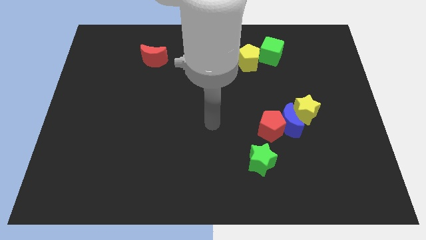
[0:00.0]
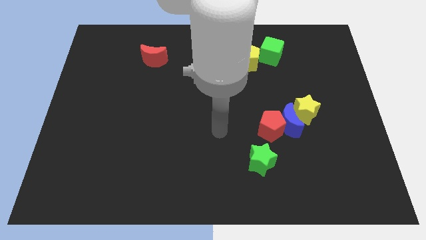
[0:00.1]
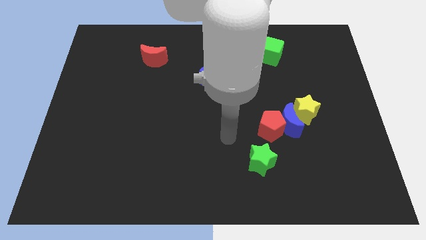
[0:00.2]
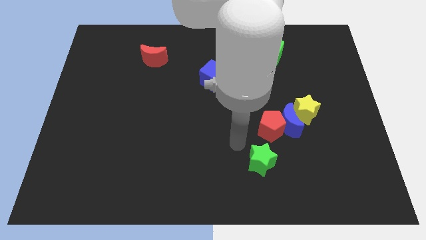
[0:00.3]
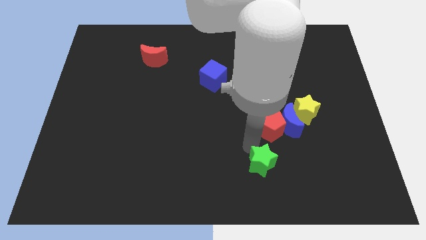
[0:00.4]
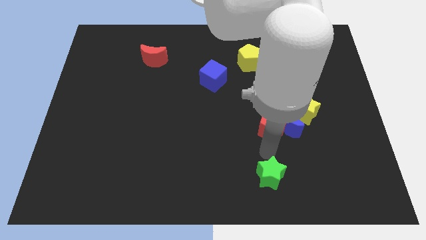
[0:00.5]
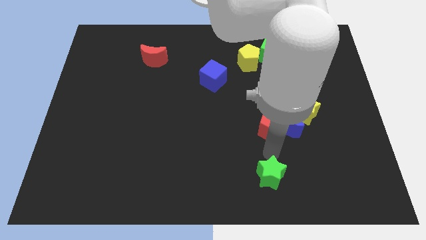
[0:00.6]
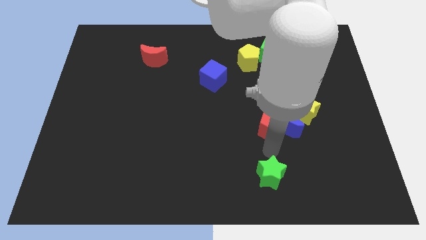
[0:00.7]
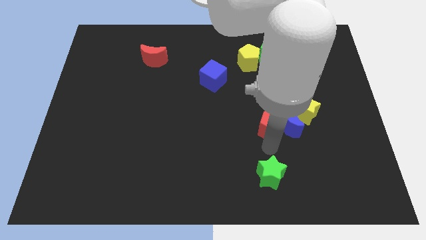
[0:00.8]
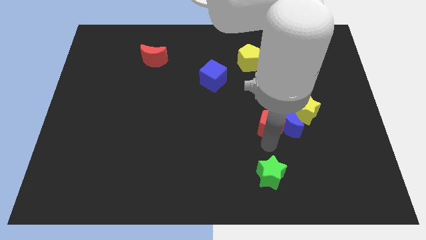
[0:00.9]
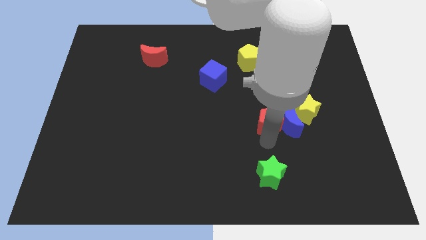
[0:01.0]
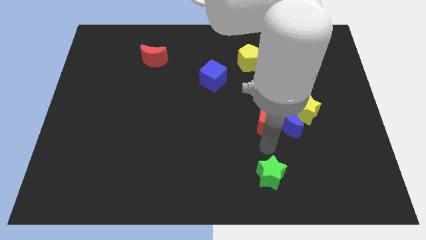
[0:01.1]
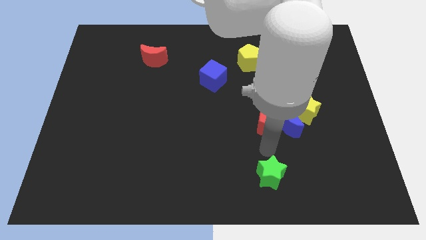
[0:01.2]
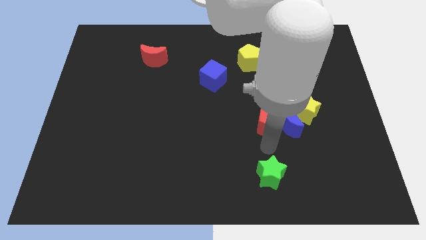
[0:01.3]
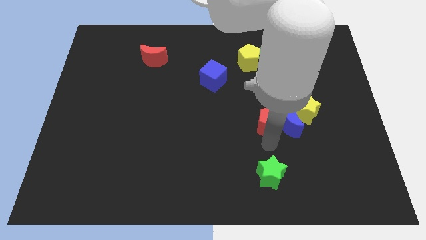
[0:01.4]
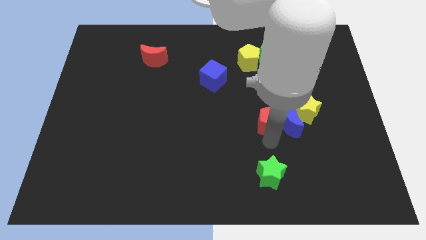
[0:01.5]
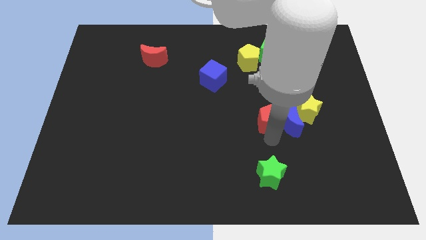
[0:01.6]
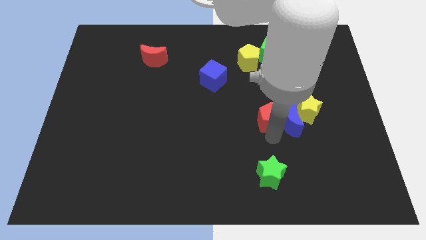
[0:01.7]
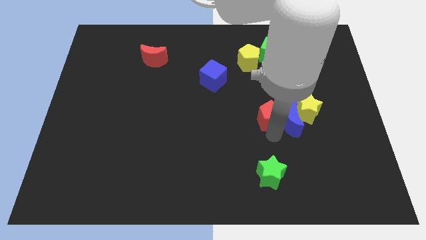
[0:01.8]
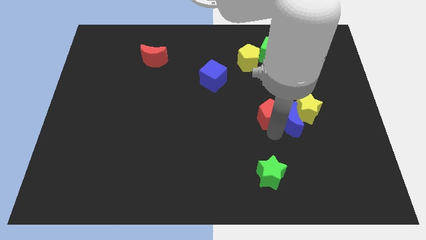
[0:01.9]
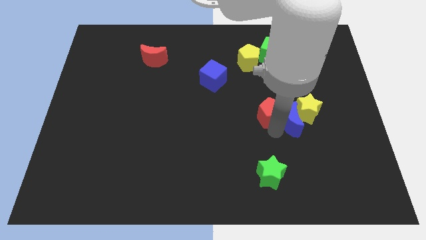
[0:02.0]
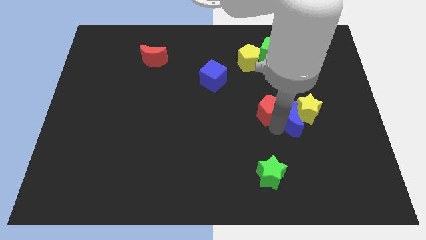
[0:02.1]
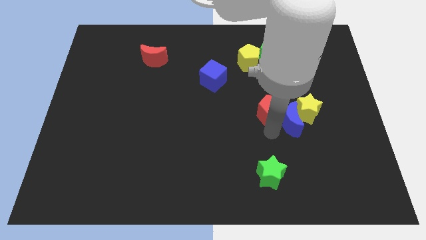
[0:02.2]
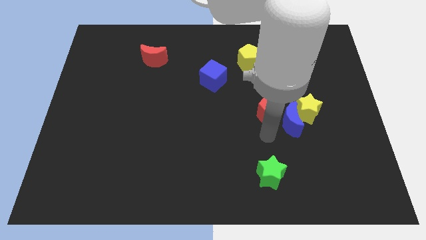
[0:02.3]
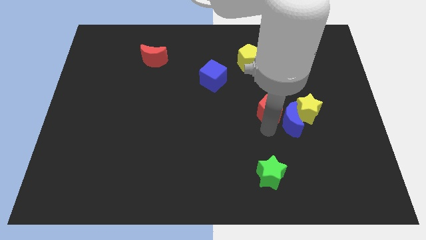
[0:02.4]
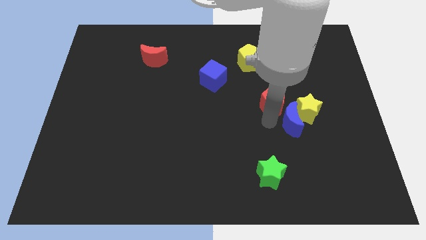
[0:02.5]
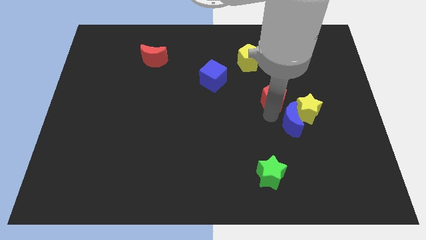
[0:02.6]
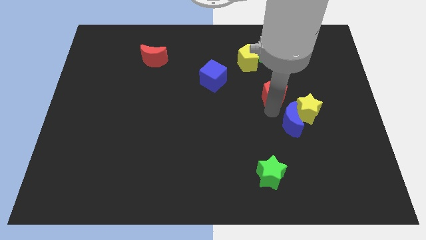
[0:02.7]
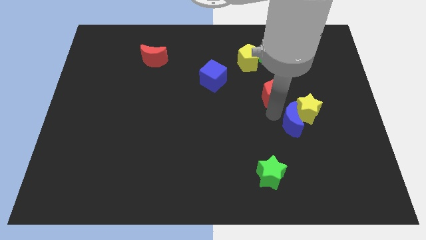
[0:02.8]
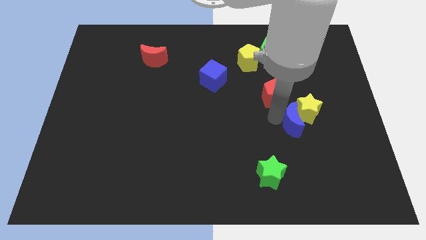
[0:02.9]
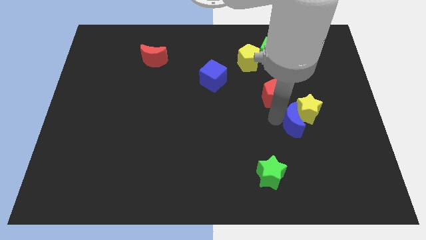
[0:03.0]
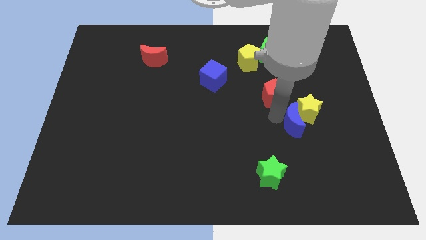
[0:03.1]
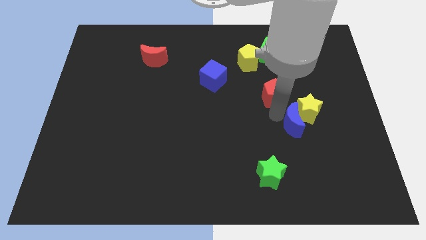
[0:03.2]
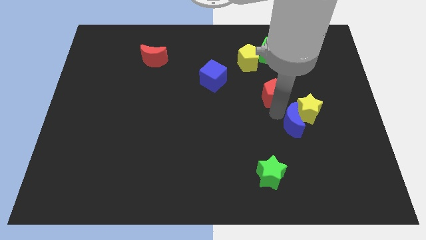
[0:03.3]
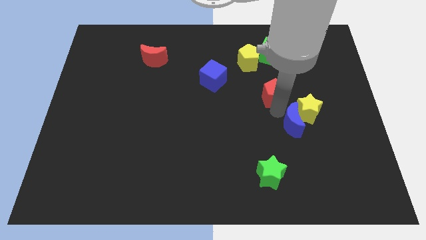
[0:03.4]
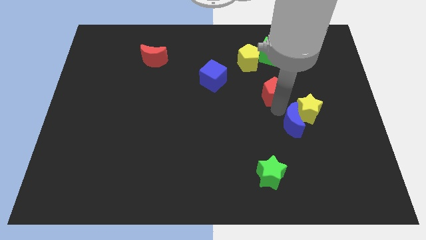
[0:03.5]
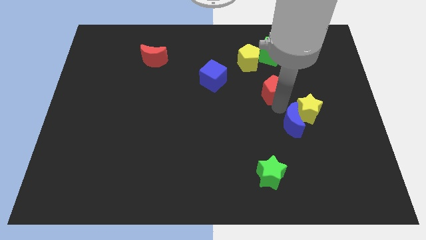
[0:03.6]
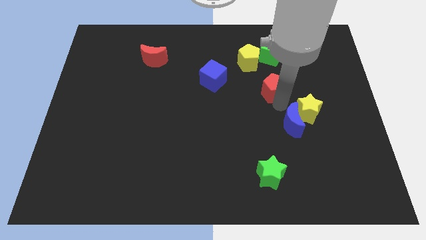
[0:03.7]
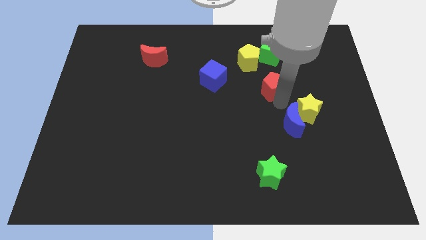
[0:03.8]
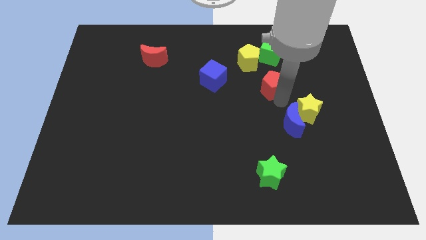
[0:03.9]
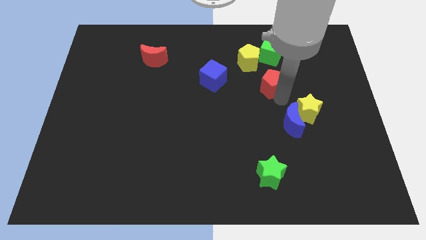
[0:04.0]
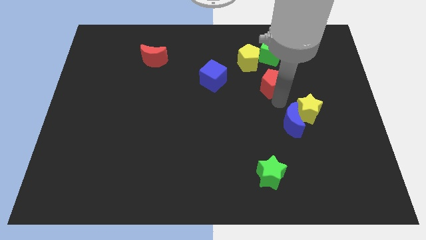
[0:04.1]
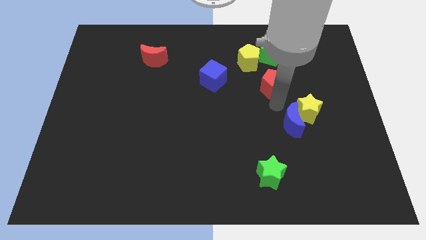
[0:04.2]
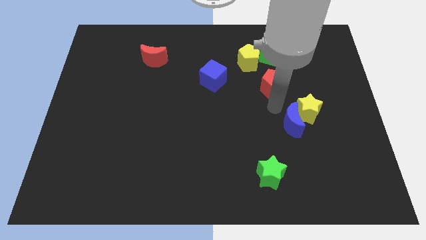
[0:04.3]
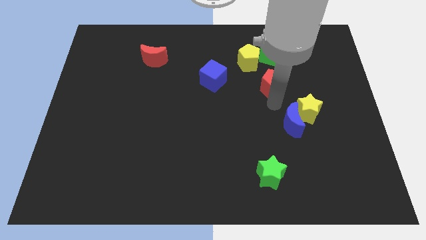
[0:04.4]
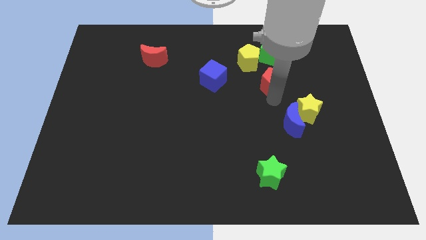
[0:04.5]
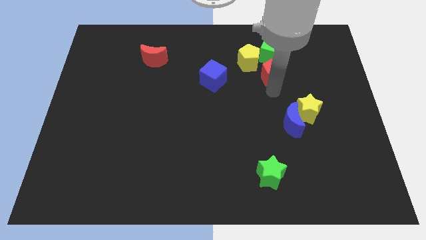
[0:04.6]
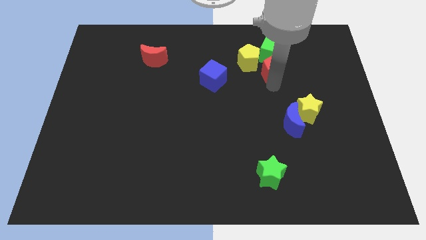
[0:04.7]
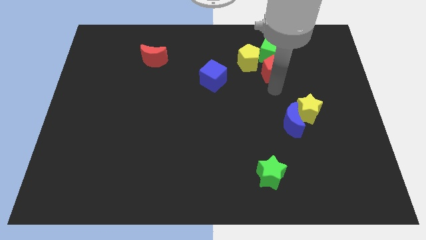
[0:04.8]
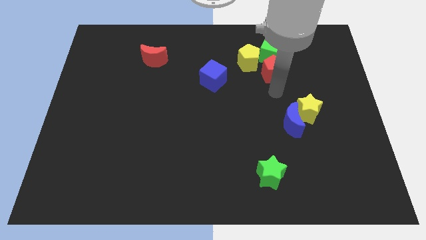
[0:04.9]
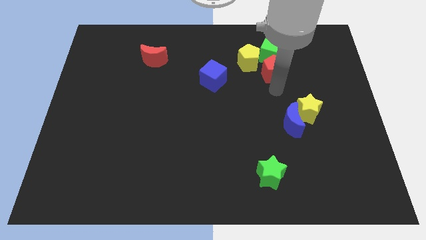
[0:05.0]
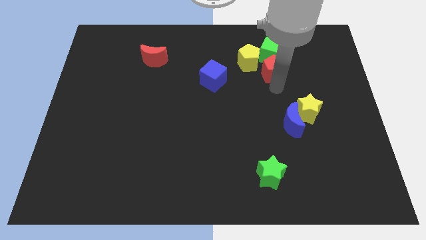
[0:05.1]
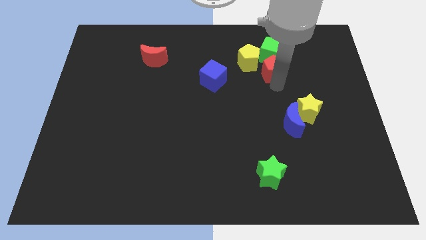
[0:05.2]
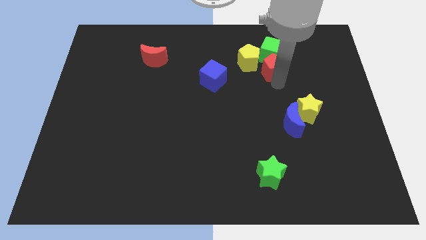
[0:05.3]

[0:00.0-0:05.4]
put the red pentagon towards the green cube

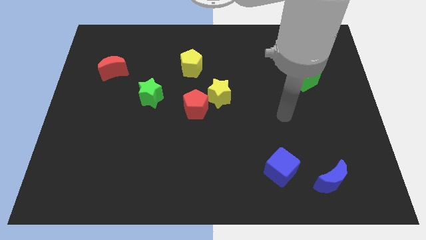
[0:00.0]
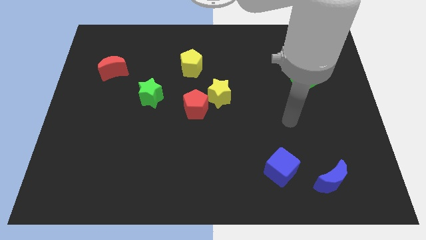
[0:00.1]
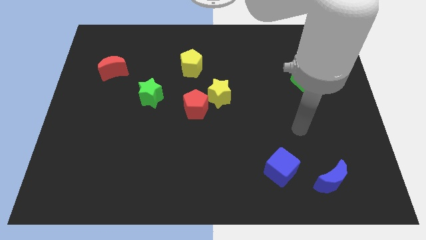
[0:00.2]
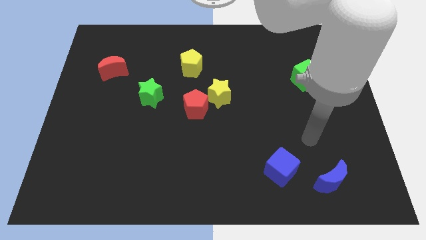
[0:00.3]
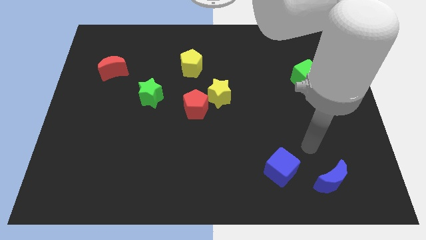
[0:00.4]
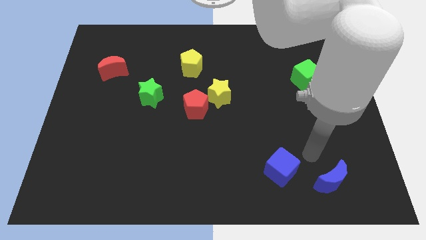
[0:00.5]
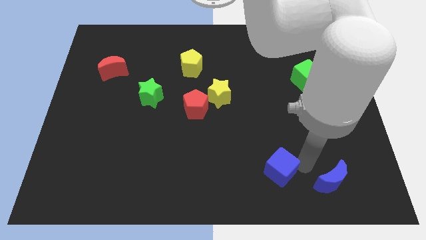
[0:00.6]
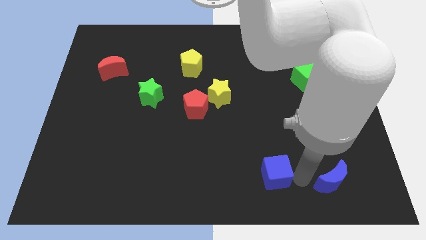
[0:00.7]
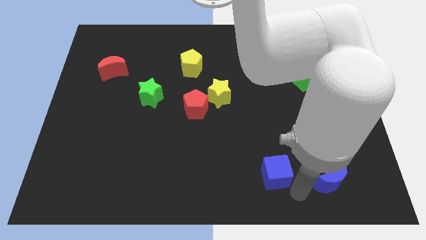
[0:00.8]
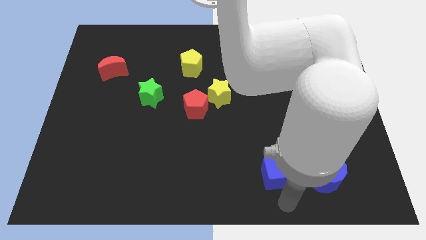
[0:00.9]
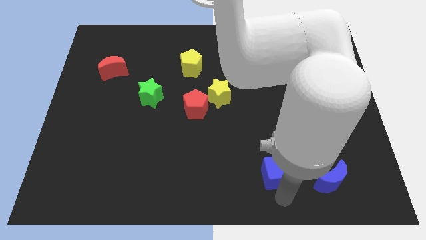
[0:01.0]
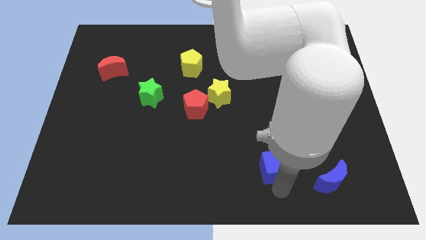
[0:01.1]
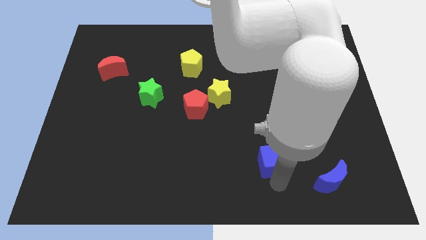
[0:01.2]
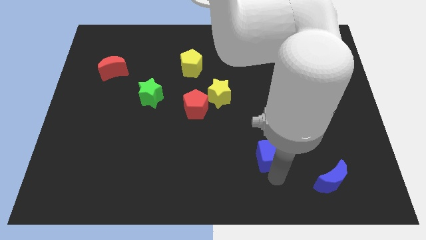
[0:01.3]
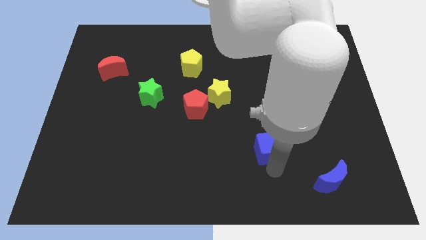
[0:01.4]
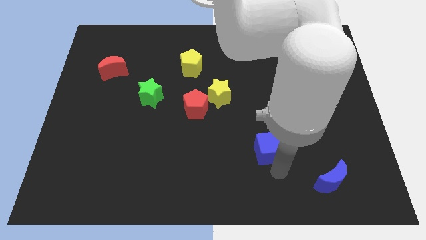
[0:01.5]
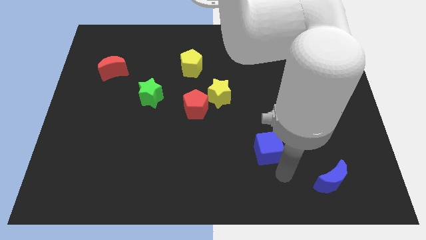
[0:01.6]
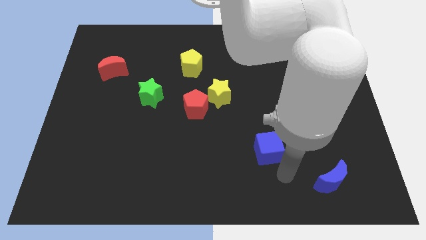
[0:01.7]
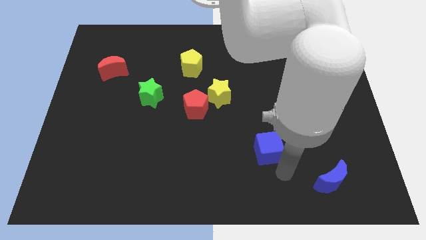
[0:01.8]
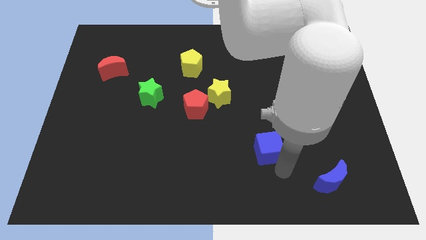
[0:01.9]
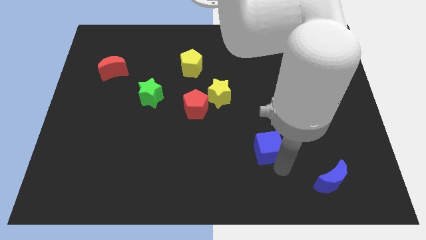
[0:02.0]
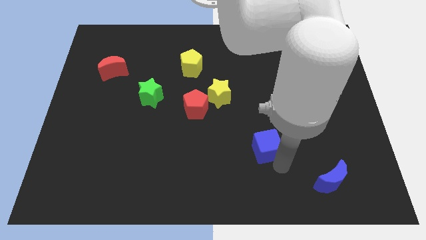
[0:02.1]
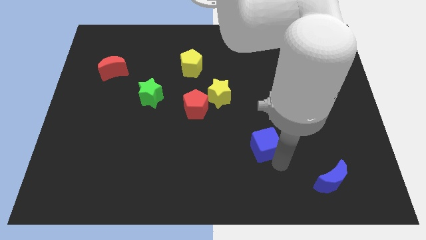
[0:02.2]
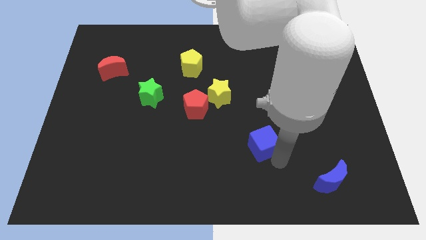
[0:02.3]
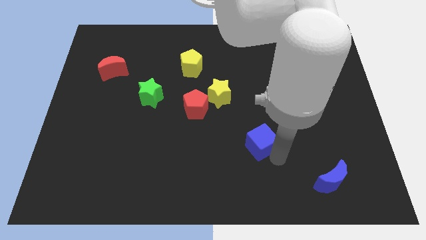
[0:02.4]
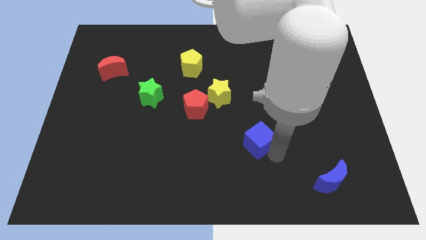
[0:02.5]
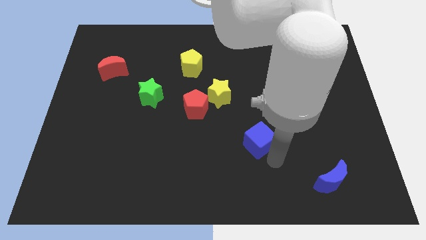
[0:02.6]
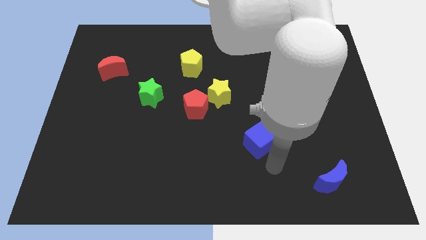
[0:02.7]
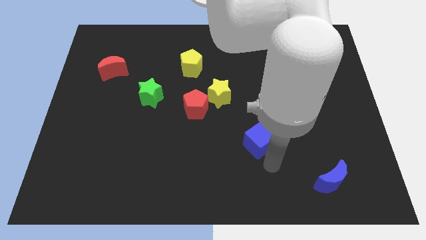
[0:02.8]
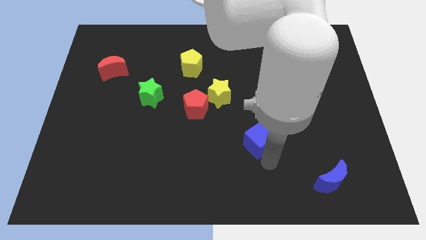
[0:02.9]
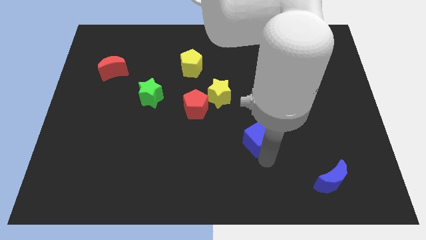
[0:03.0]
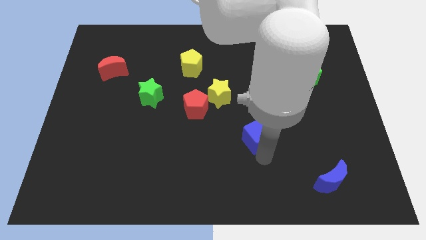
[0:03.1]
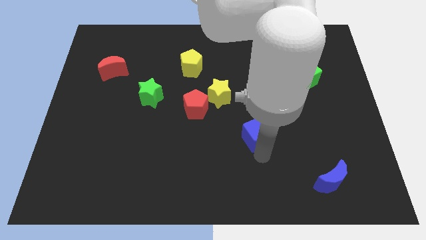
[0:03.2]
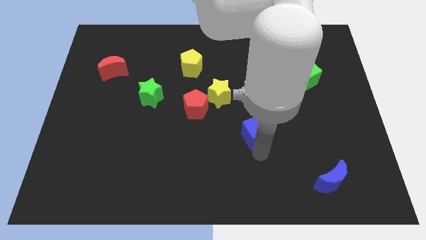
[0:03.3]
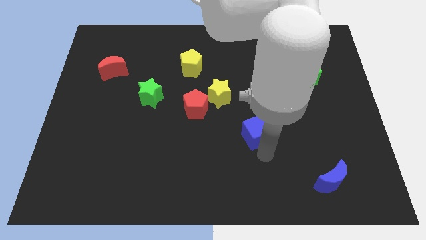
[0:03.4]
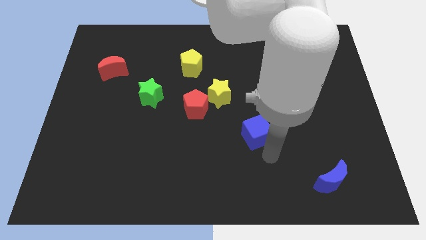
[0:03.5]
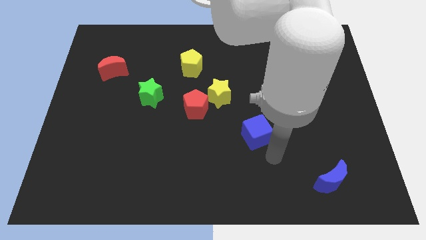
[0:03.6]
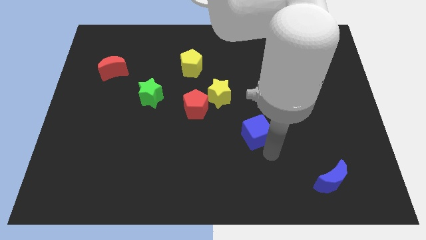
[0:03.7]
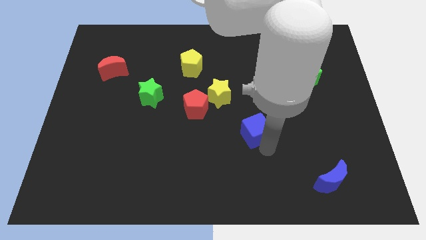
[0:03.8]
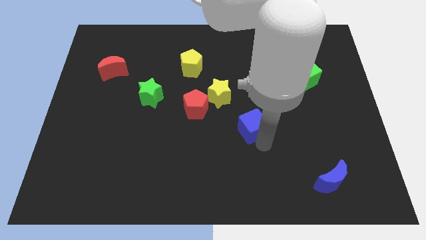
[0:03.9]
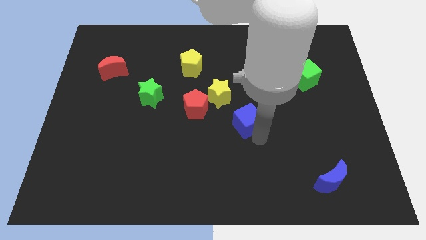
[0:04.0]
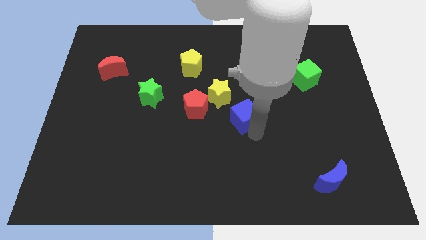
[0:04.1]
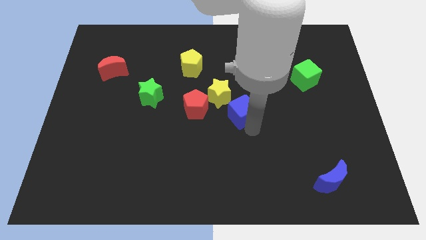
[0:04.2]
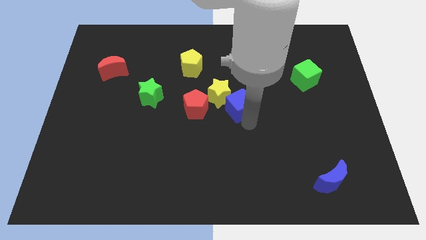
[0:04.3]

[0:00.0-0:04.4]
slide the blue cube to the yellow star
